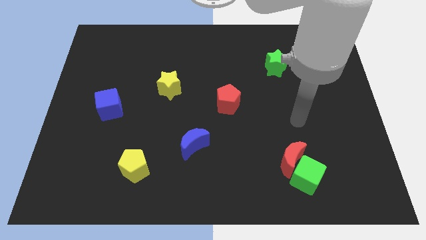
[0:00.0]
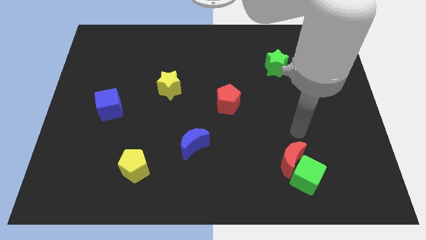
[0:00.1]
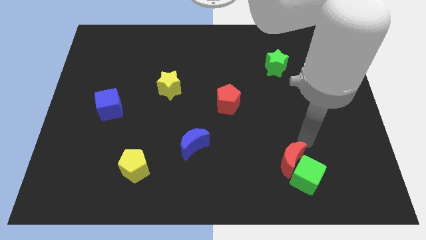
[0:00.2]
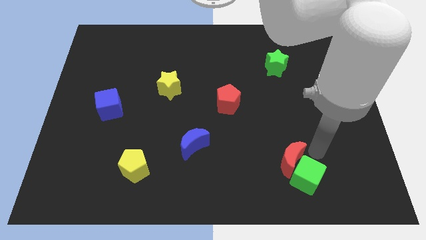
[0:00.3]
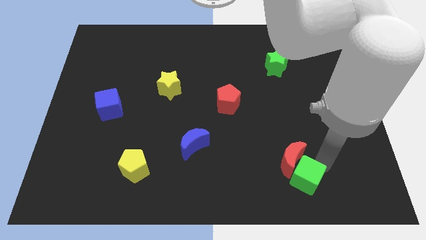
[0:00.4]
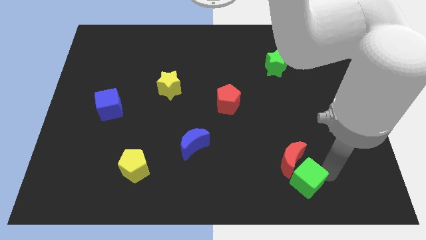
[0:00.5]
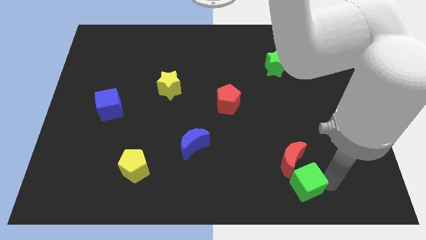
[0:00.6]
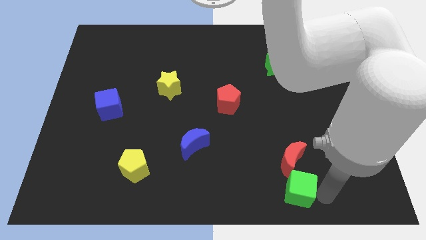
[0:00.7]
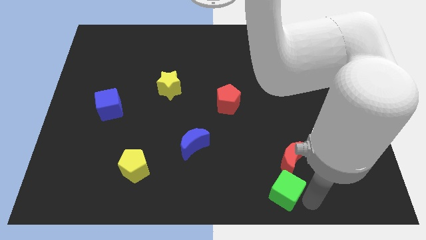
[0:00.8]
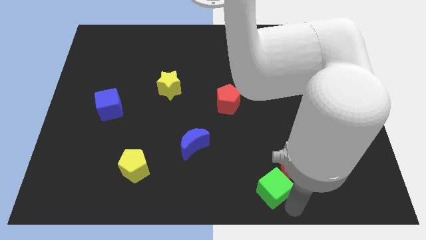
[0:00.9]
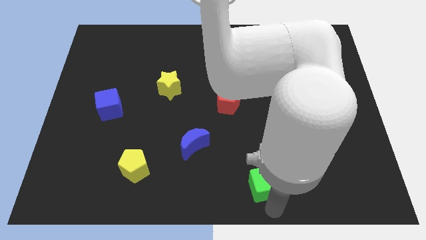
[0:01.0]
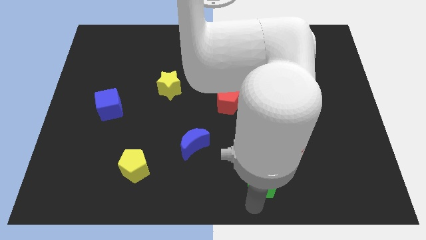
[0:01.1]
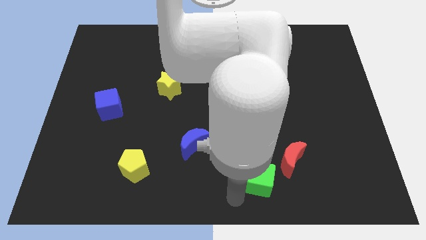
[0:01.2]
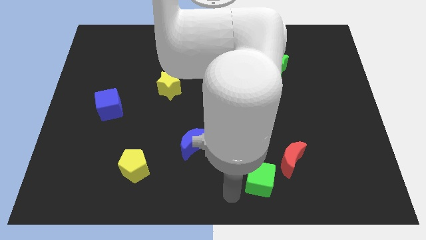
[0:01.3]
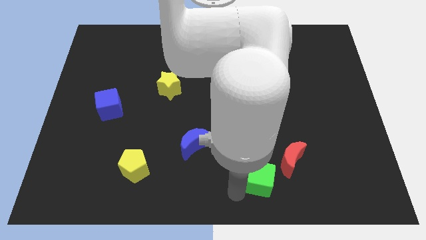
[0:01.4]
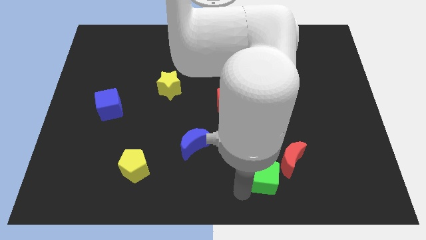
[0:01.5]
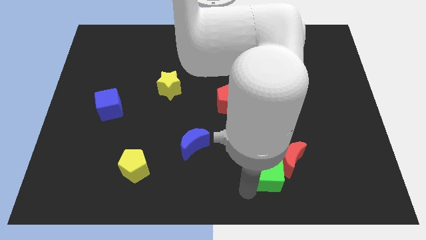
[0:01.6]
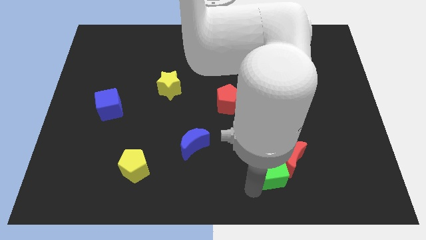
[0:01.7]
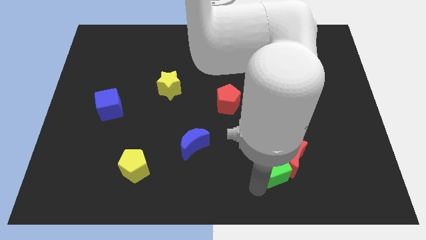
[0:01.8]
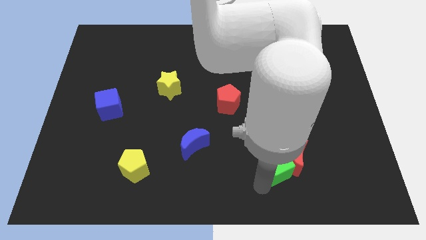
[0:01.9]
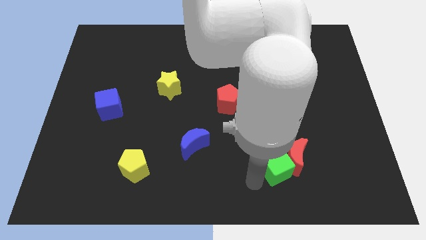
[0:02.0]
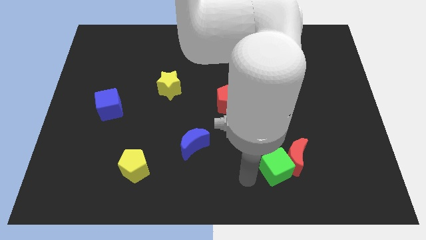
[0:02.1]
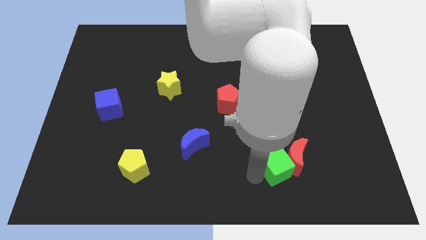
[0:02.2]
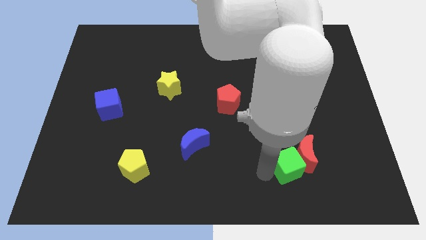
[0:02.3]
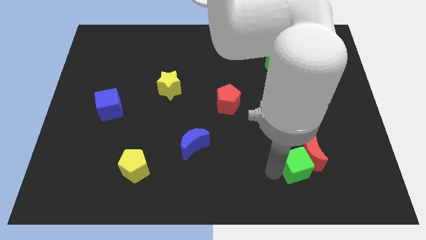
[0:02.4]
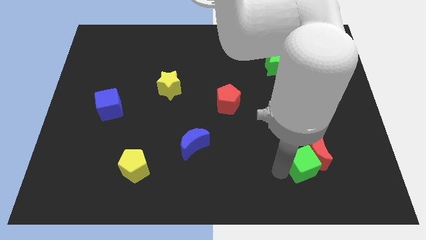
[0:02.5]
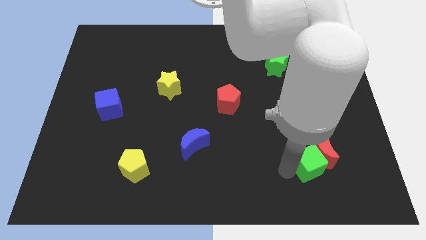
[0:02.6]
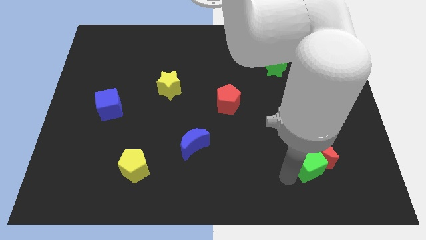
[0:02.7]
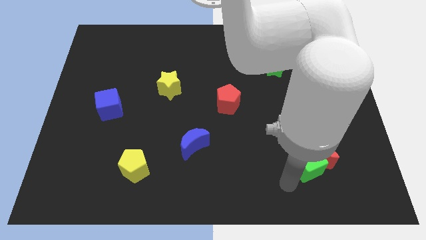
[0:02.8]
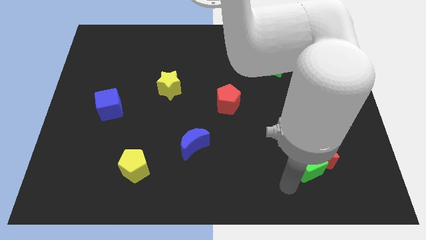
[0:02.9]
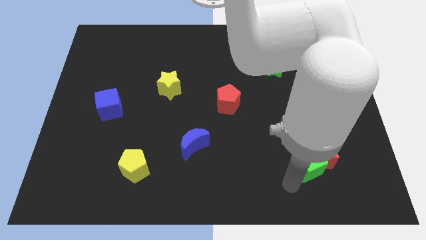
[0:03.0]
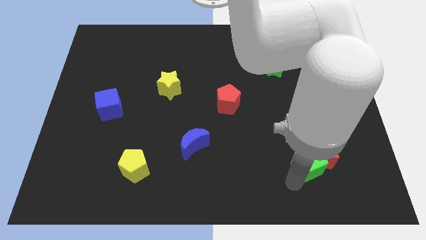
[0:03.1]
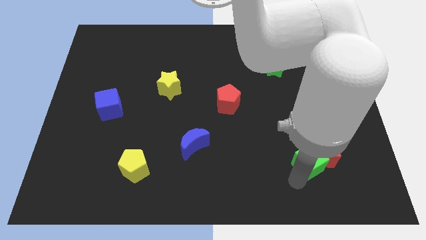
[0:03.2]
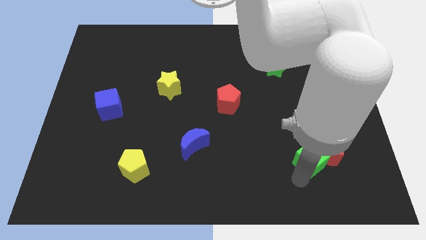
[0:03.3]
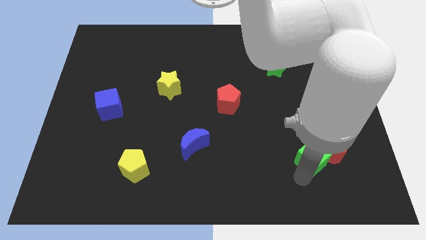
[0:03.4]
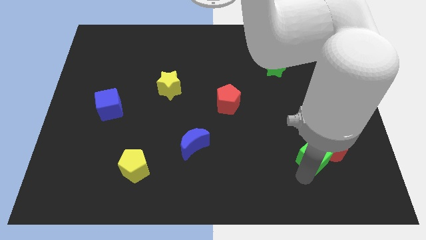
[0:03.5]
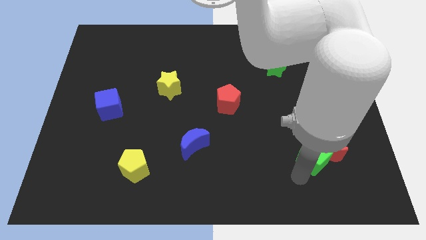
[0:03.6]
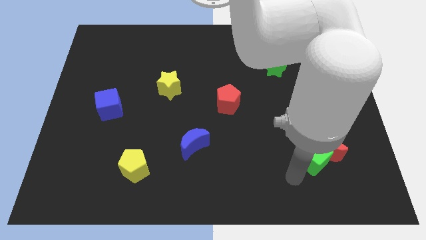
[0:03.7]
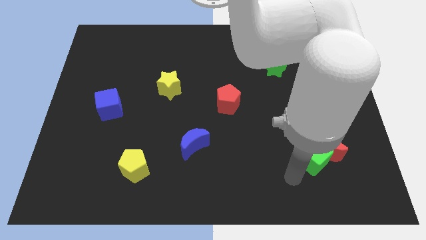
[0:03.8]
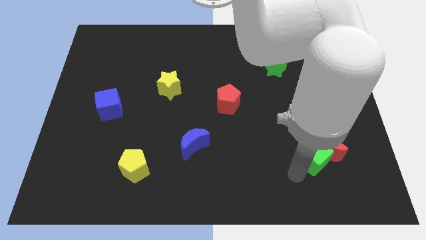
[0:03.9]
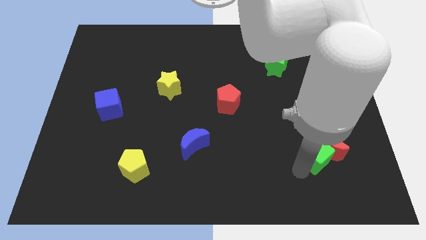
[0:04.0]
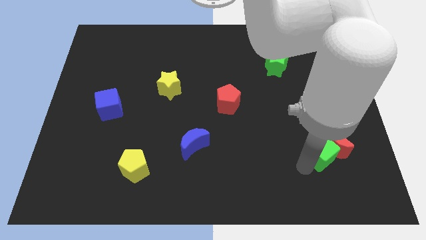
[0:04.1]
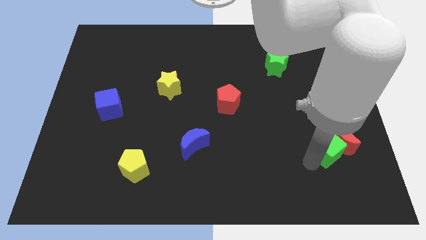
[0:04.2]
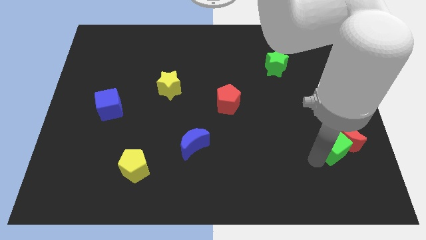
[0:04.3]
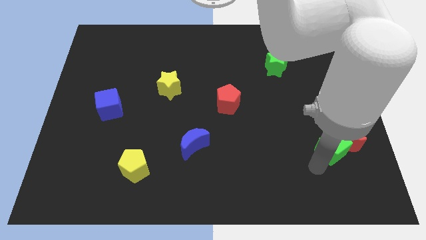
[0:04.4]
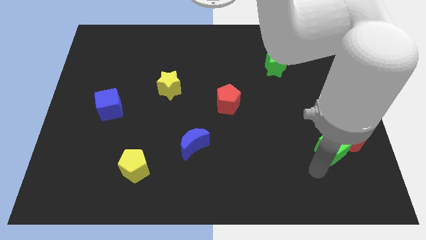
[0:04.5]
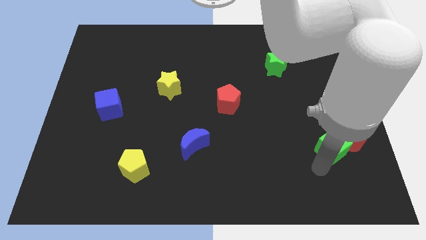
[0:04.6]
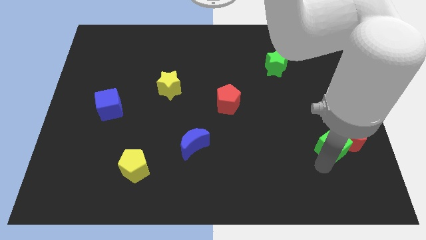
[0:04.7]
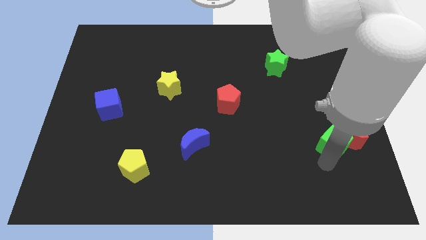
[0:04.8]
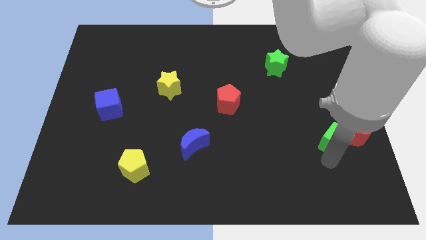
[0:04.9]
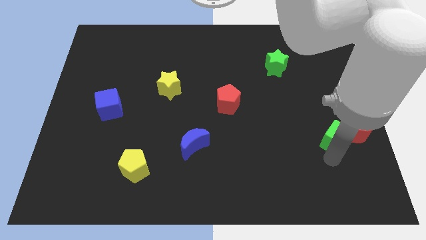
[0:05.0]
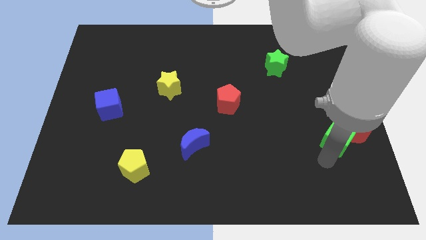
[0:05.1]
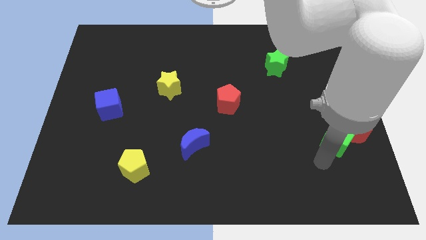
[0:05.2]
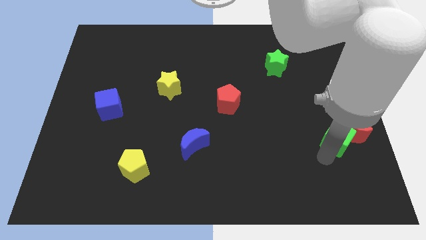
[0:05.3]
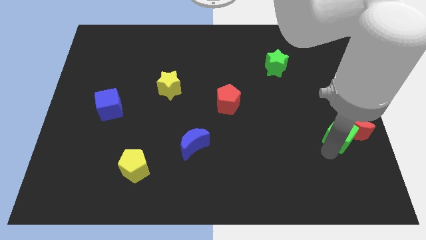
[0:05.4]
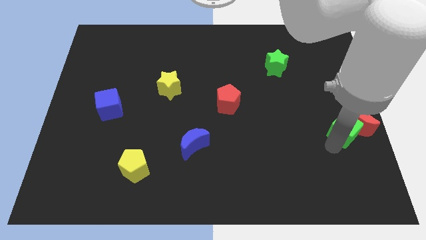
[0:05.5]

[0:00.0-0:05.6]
slide the green cube to the right side of the board

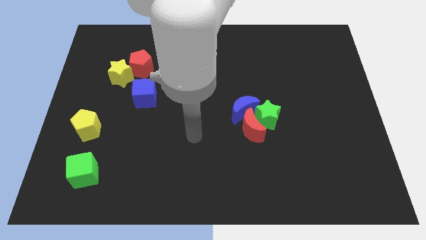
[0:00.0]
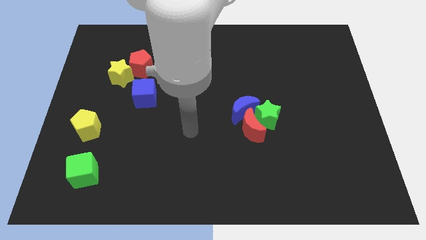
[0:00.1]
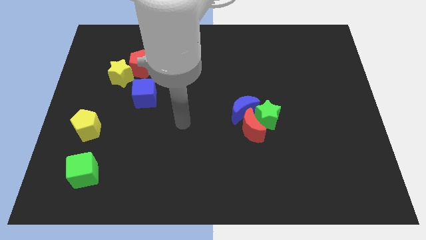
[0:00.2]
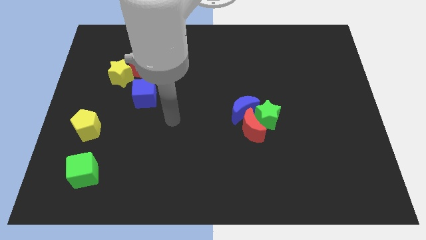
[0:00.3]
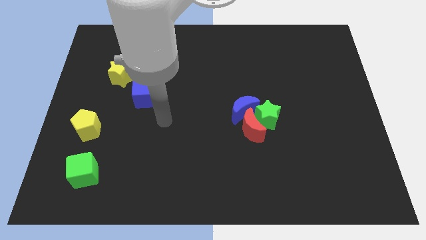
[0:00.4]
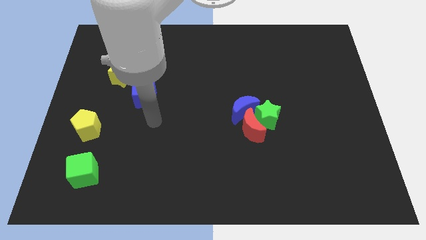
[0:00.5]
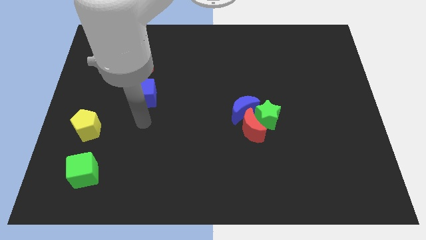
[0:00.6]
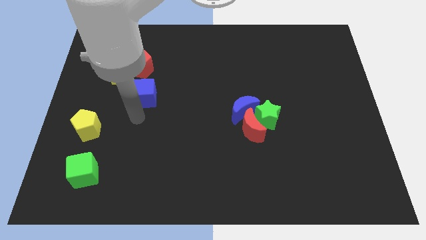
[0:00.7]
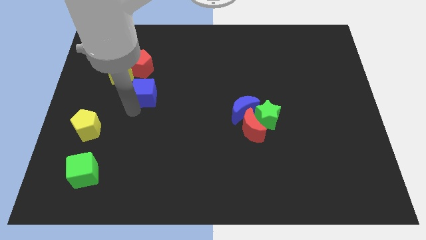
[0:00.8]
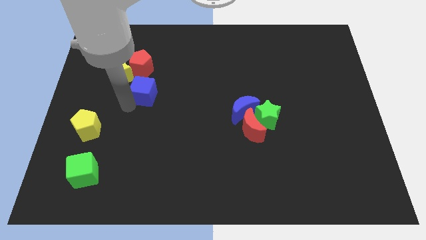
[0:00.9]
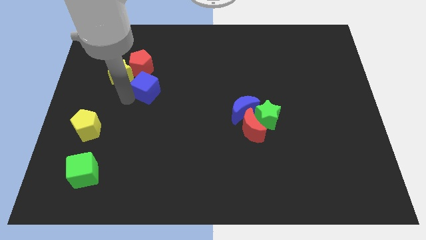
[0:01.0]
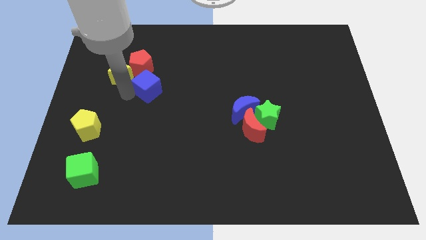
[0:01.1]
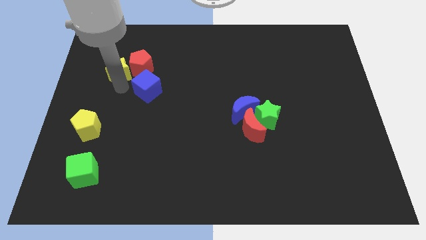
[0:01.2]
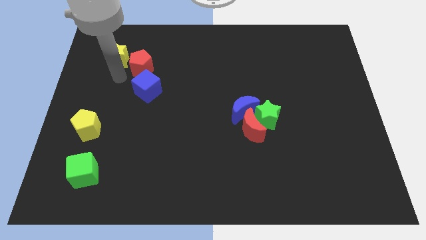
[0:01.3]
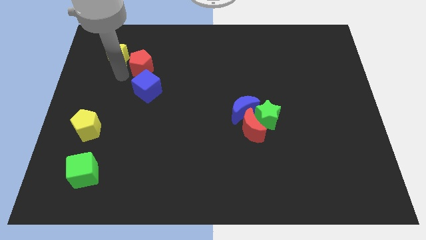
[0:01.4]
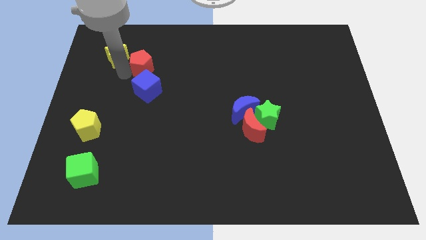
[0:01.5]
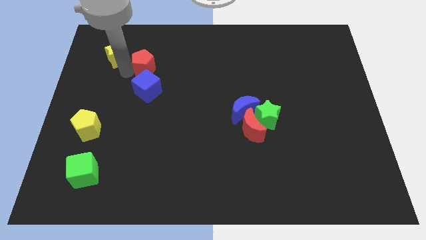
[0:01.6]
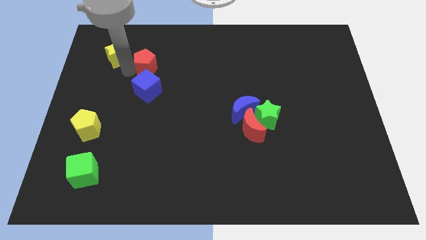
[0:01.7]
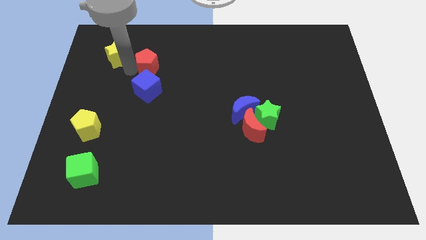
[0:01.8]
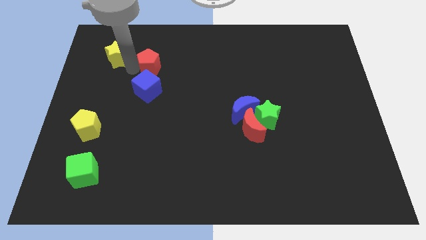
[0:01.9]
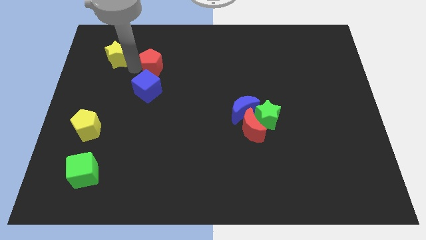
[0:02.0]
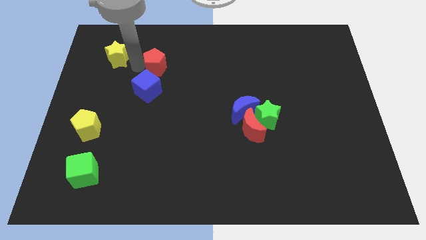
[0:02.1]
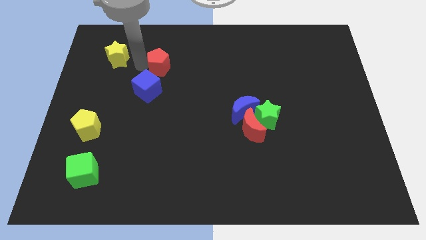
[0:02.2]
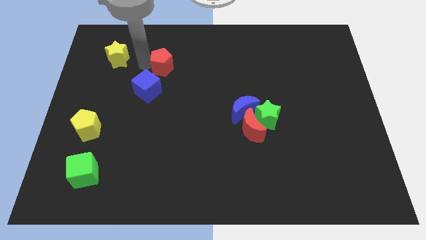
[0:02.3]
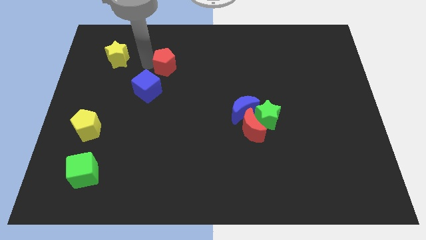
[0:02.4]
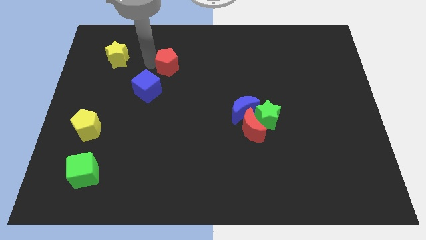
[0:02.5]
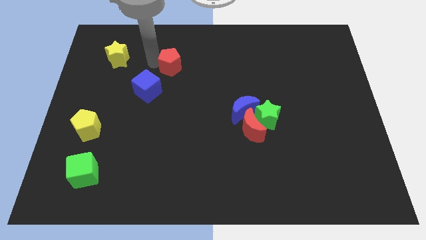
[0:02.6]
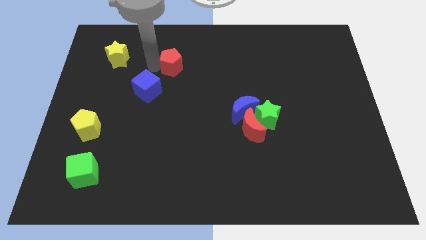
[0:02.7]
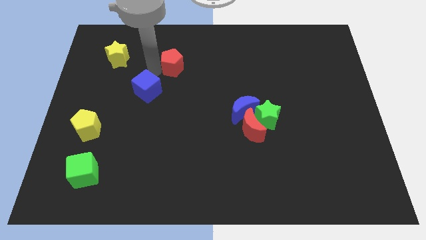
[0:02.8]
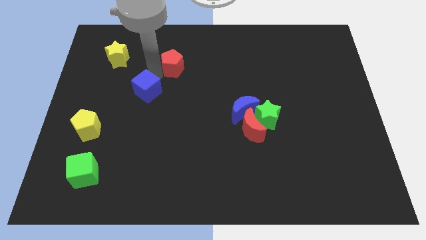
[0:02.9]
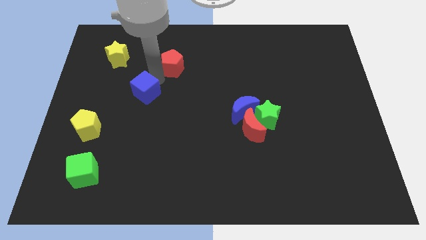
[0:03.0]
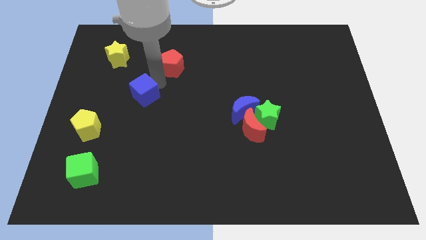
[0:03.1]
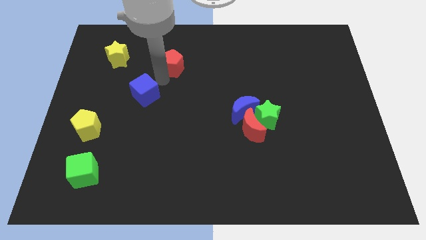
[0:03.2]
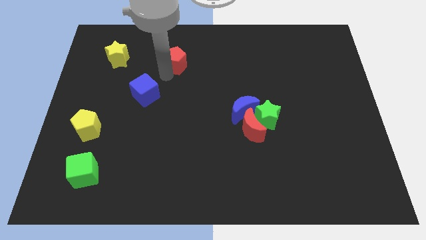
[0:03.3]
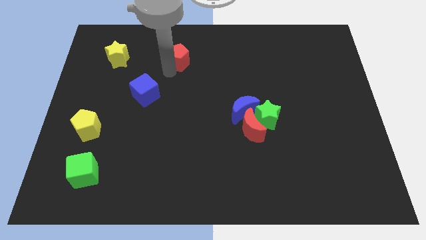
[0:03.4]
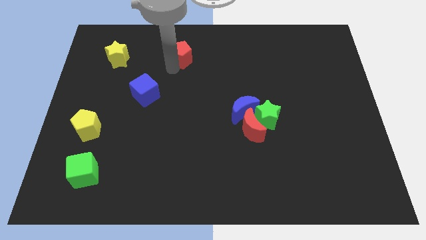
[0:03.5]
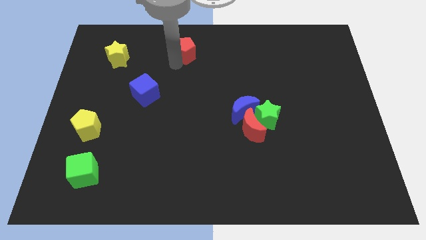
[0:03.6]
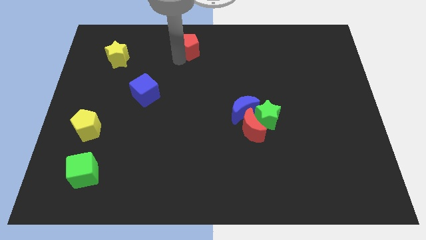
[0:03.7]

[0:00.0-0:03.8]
push the red pentagon to the top side
